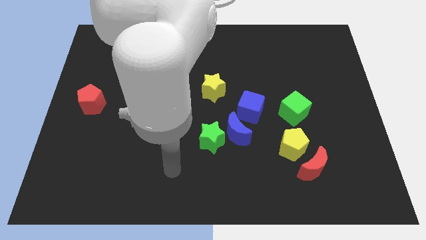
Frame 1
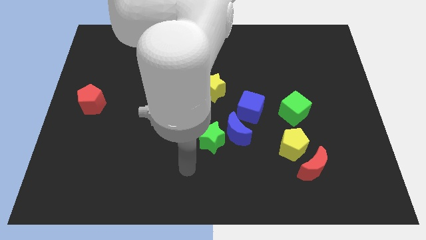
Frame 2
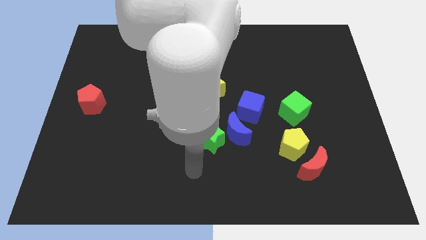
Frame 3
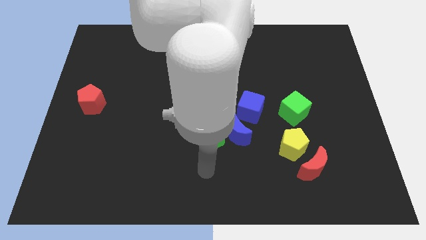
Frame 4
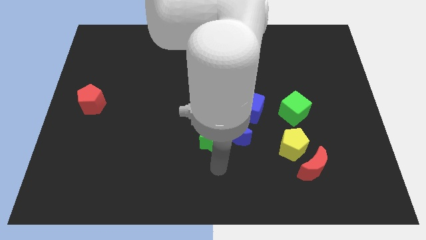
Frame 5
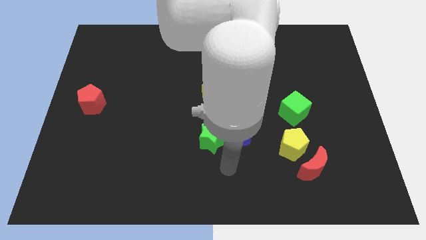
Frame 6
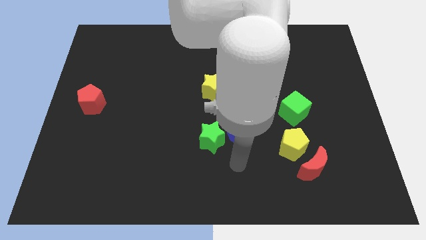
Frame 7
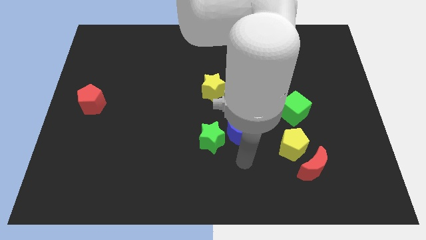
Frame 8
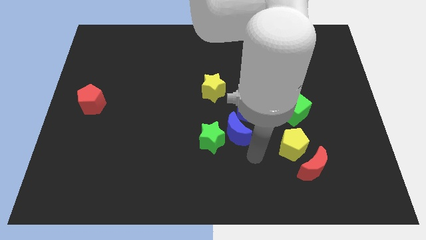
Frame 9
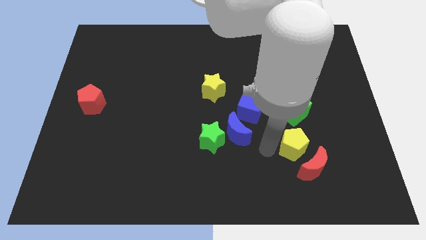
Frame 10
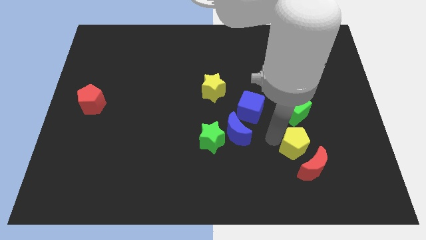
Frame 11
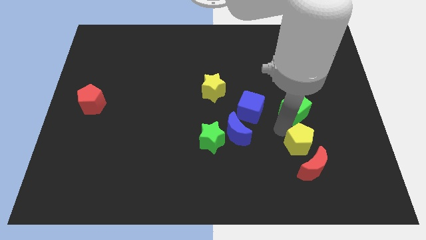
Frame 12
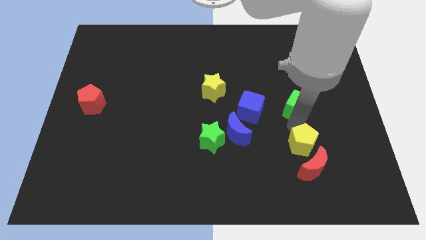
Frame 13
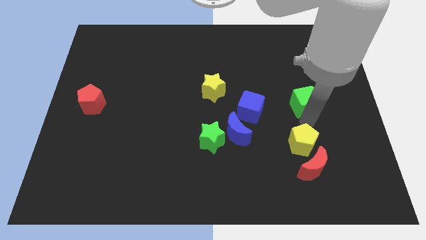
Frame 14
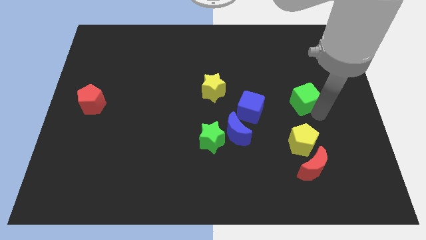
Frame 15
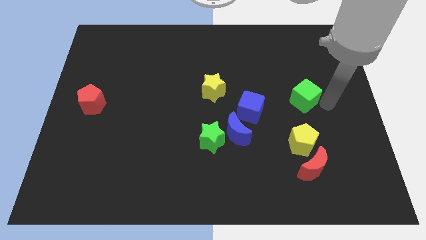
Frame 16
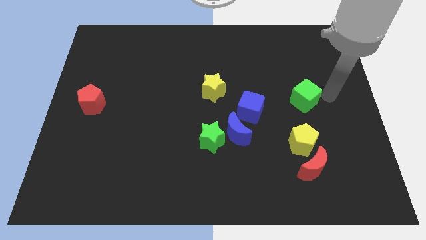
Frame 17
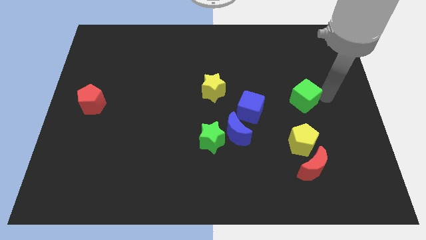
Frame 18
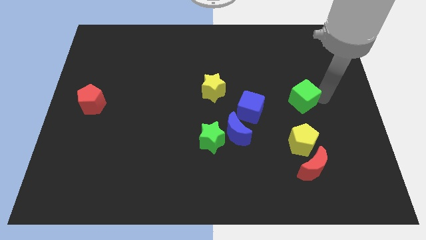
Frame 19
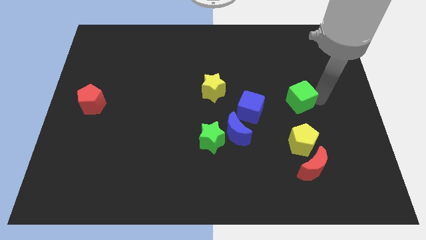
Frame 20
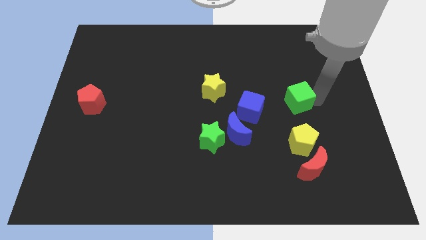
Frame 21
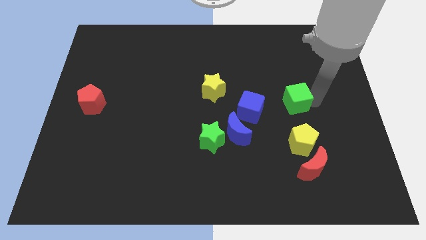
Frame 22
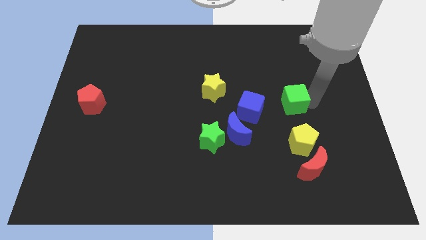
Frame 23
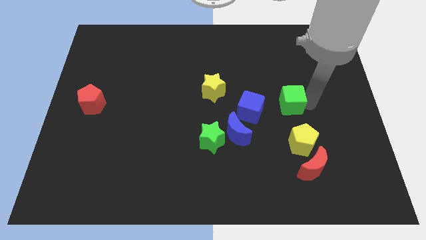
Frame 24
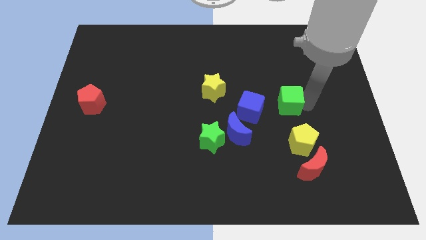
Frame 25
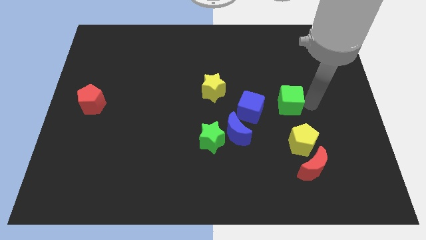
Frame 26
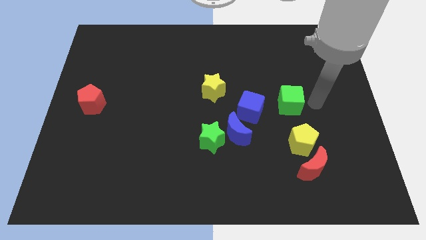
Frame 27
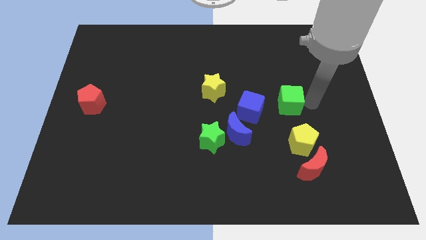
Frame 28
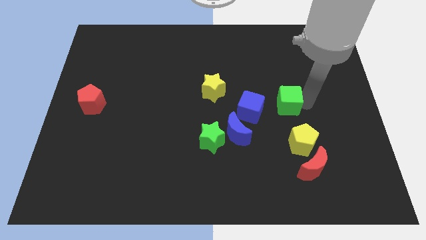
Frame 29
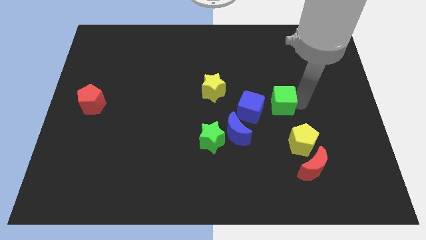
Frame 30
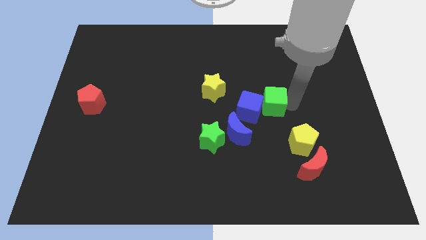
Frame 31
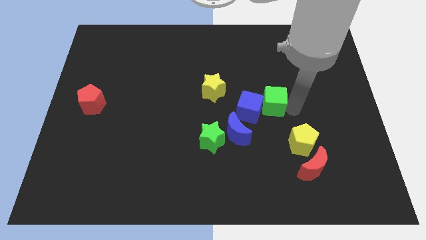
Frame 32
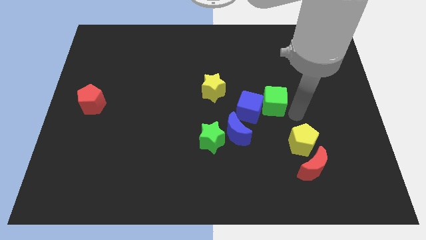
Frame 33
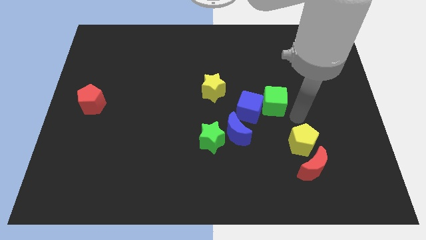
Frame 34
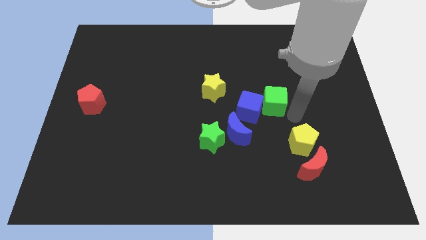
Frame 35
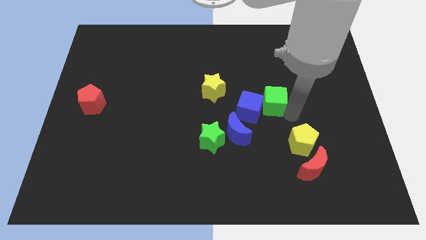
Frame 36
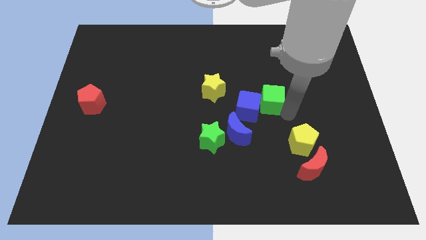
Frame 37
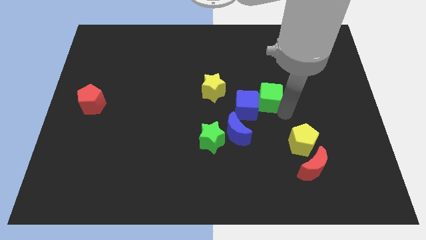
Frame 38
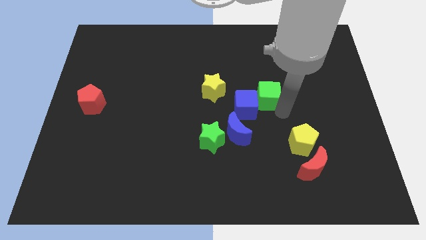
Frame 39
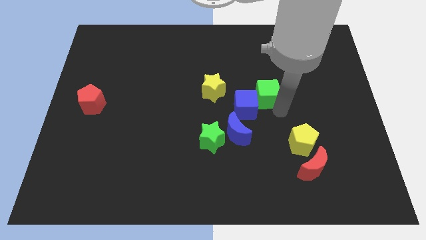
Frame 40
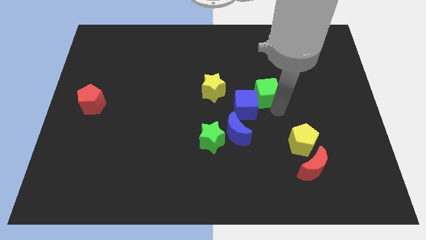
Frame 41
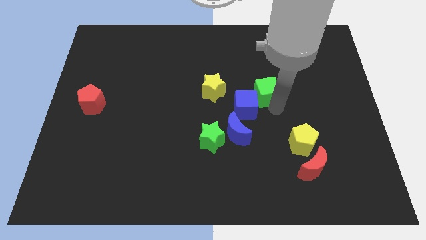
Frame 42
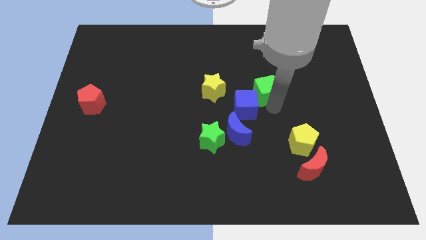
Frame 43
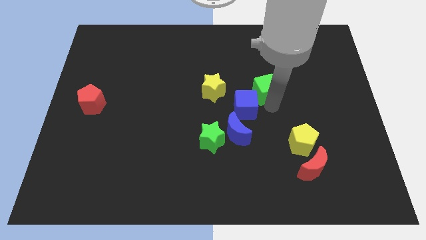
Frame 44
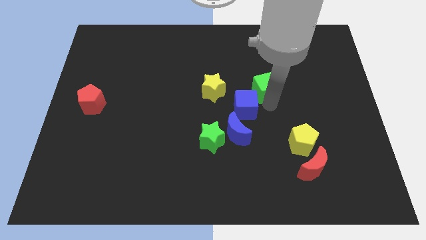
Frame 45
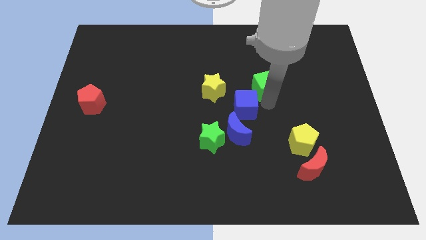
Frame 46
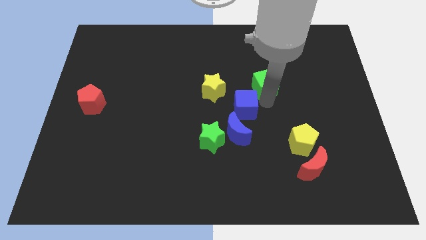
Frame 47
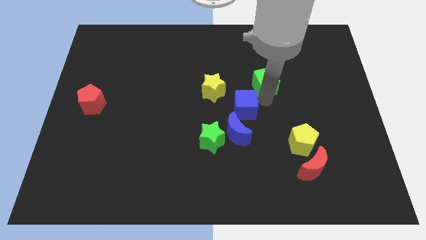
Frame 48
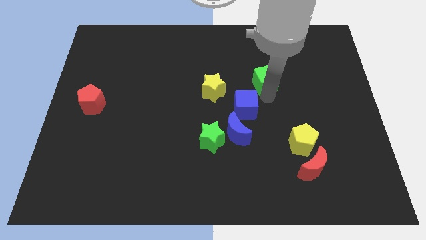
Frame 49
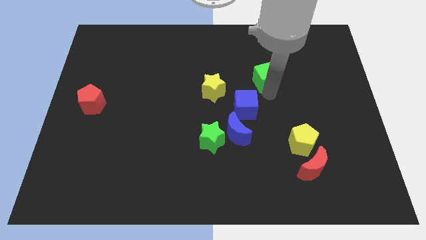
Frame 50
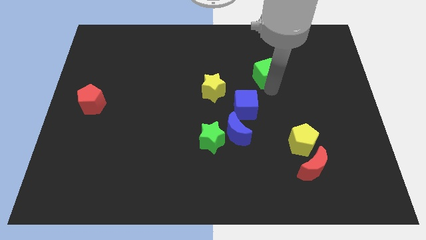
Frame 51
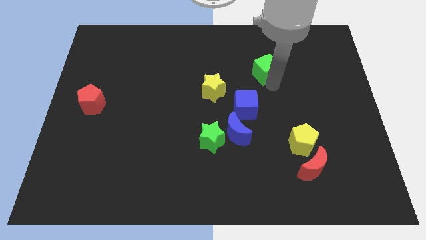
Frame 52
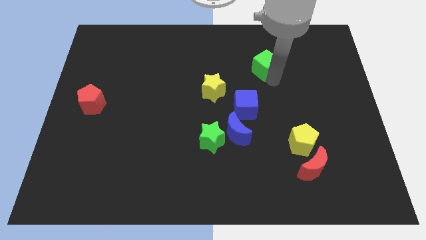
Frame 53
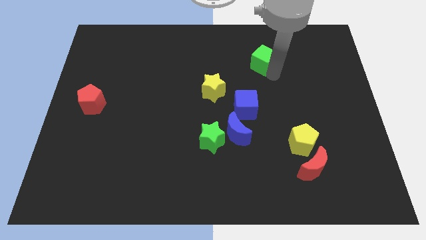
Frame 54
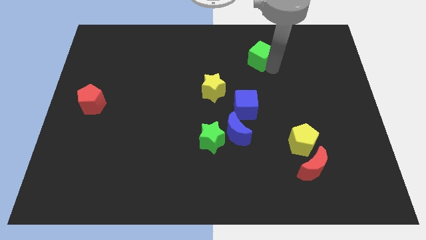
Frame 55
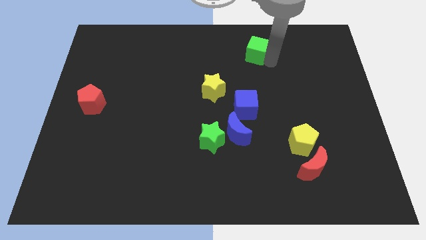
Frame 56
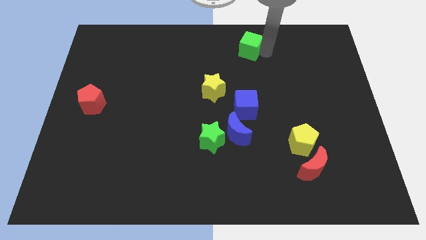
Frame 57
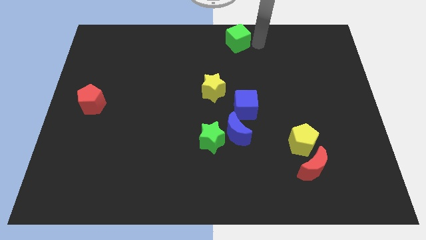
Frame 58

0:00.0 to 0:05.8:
move the green cube to the towards your base

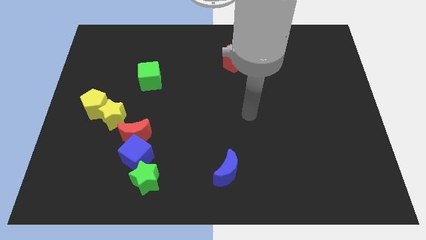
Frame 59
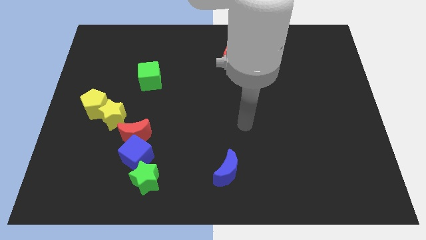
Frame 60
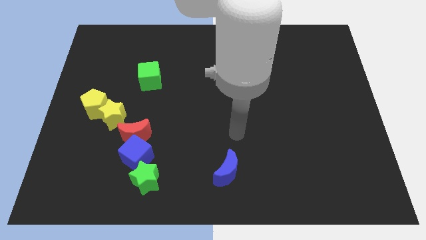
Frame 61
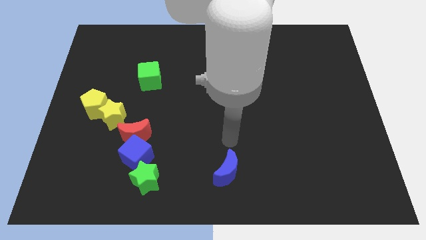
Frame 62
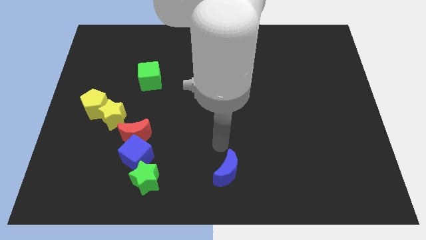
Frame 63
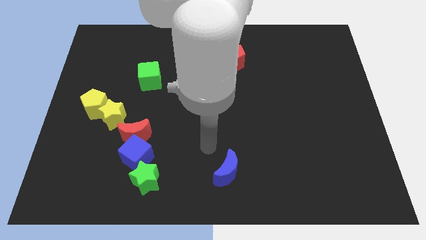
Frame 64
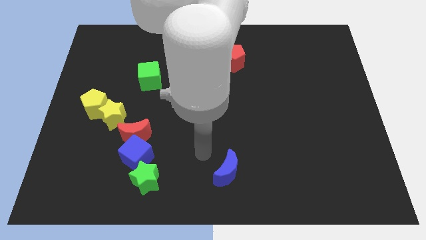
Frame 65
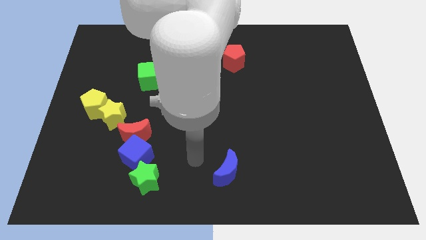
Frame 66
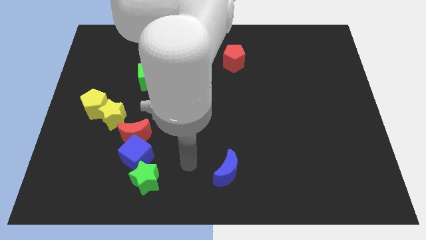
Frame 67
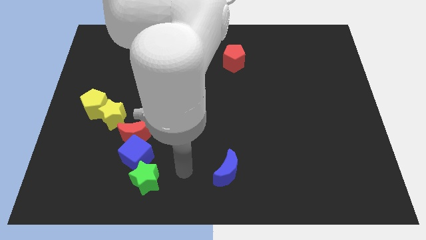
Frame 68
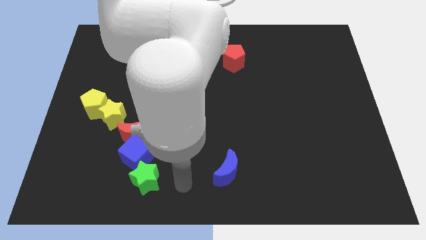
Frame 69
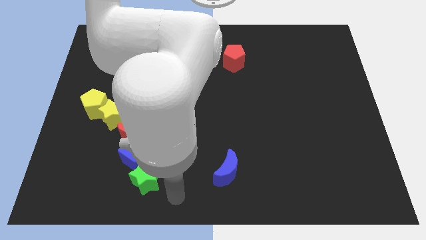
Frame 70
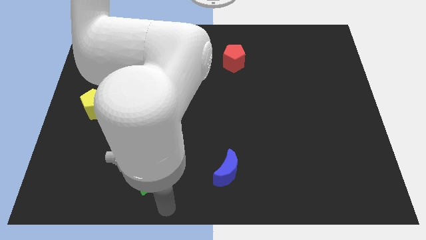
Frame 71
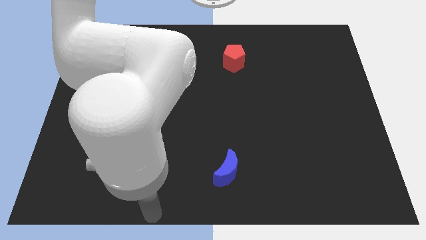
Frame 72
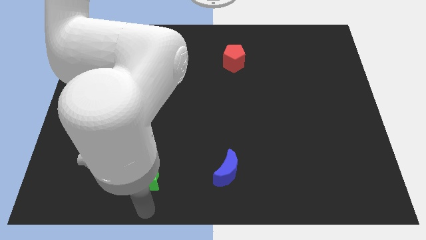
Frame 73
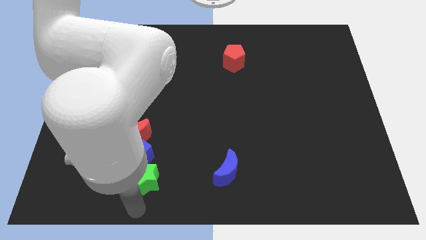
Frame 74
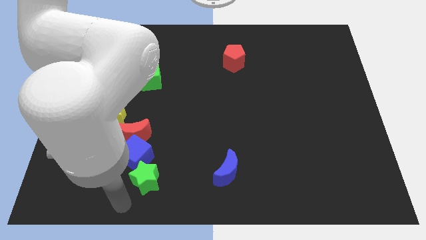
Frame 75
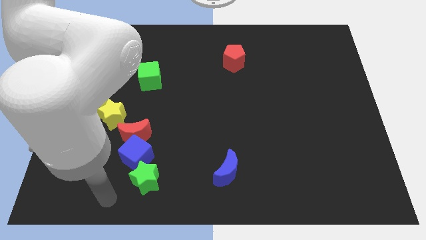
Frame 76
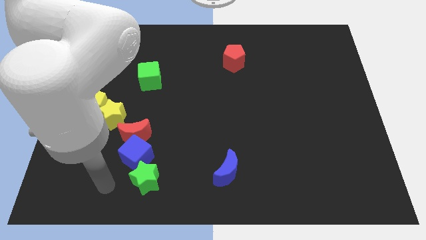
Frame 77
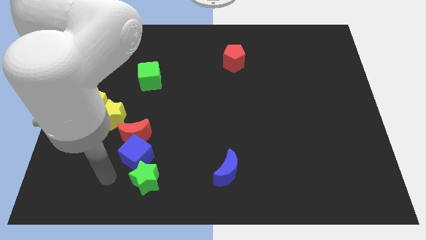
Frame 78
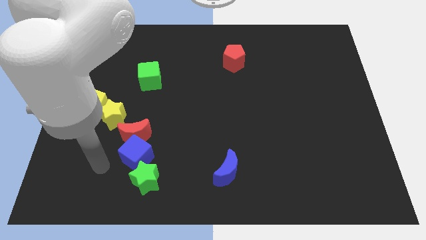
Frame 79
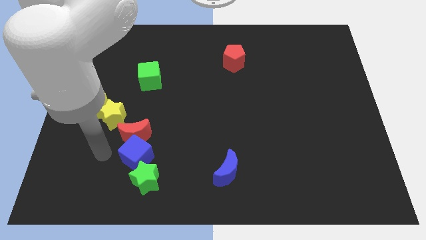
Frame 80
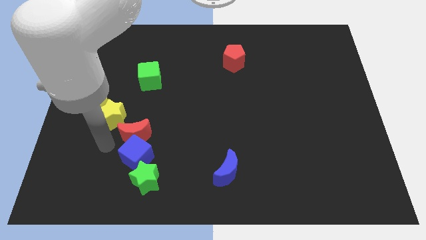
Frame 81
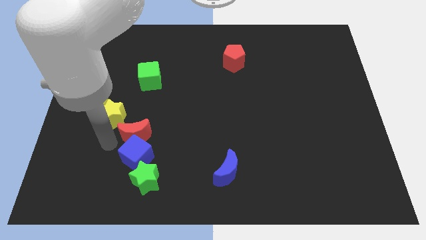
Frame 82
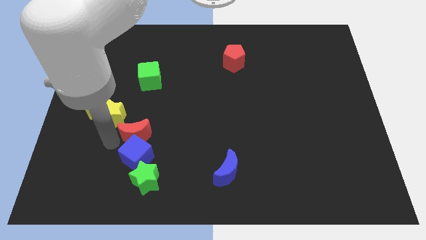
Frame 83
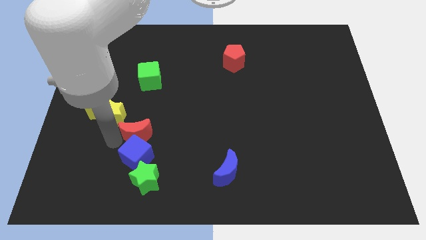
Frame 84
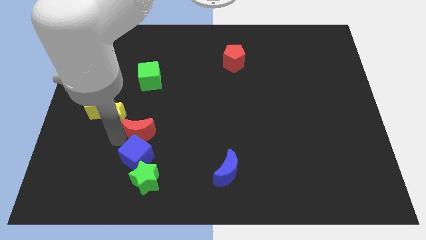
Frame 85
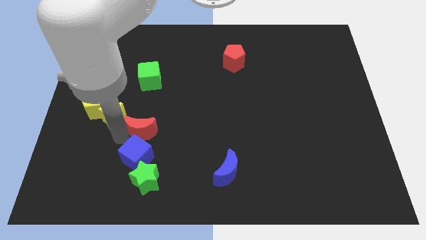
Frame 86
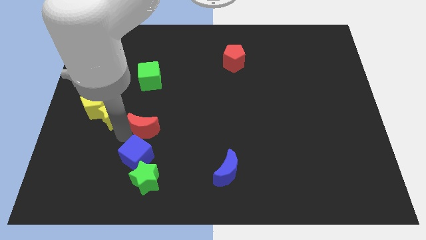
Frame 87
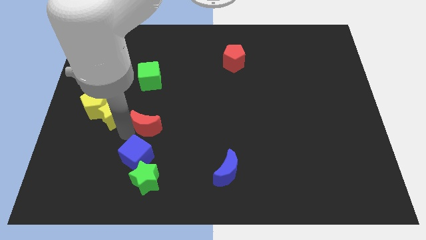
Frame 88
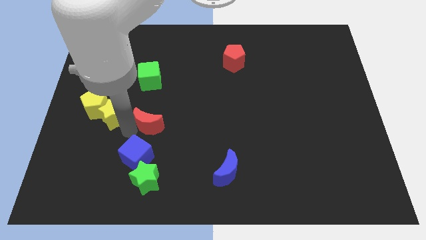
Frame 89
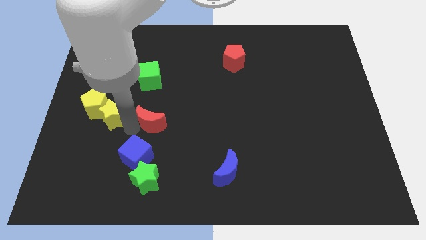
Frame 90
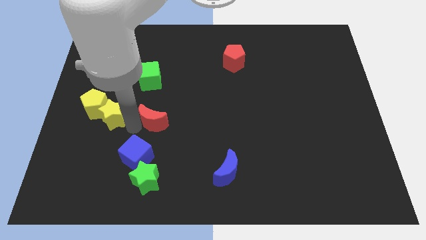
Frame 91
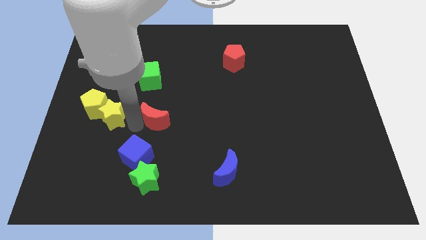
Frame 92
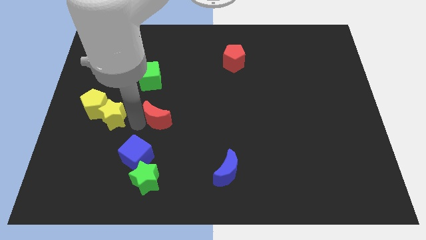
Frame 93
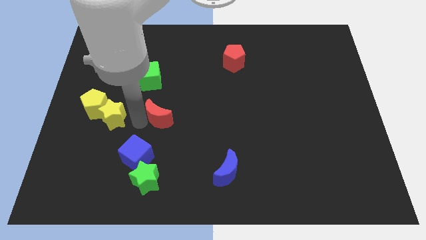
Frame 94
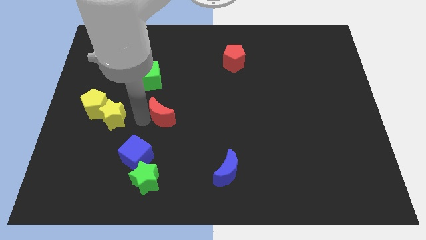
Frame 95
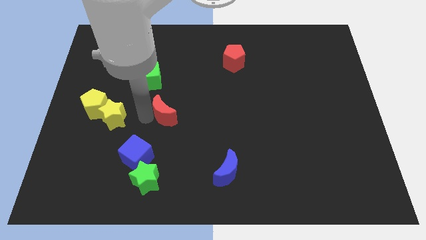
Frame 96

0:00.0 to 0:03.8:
move the red moon to the middle
